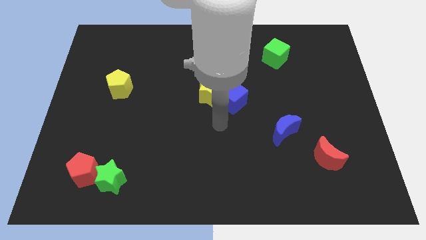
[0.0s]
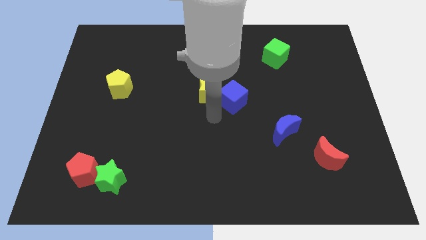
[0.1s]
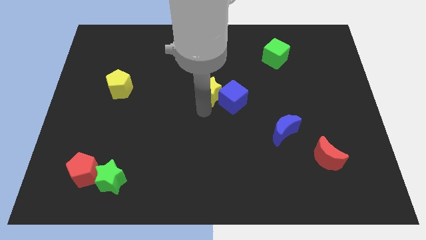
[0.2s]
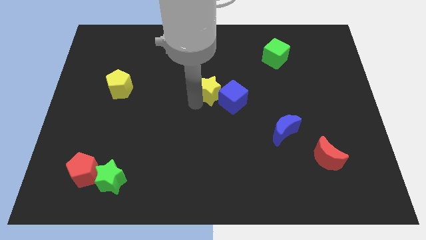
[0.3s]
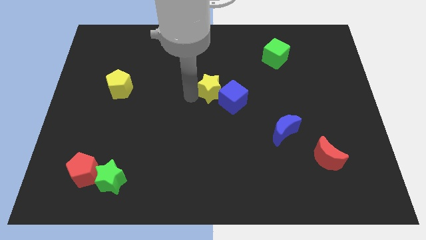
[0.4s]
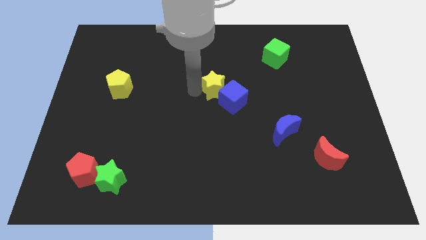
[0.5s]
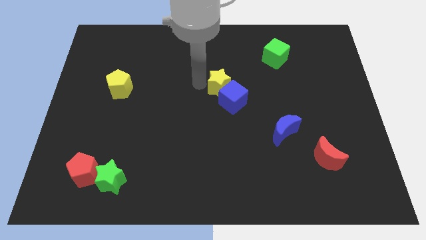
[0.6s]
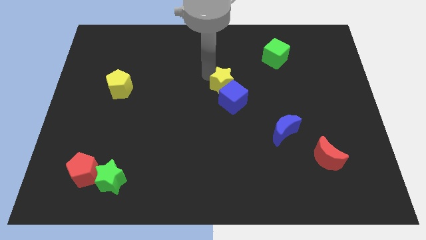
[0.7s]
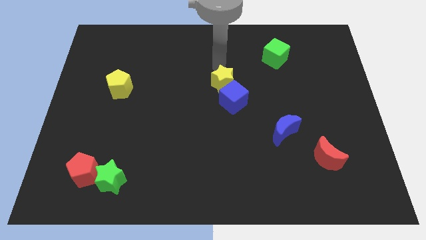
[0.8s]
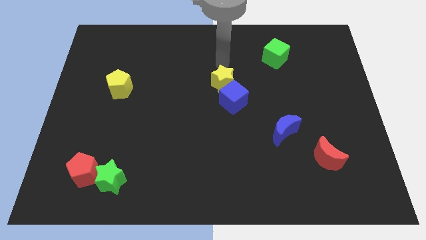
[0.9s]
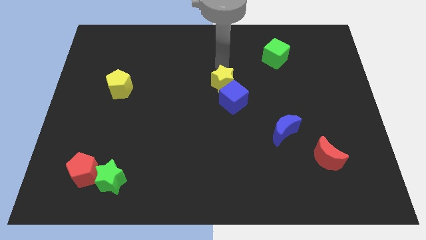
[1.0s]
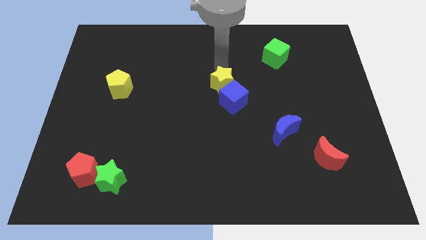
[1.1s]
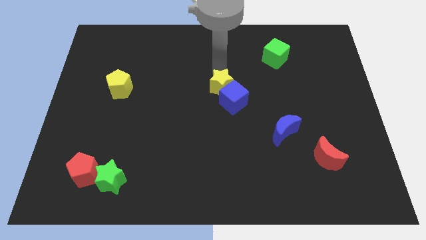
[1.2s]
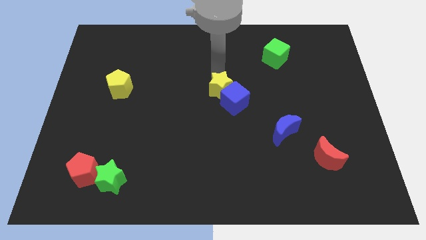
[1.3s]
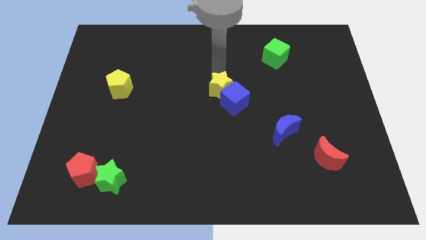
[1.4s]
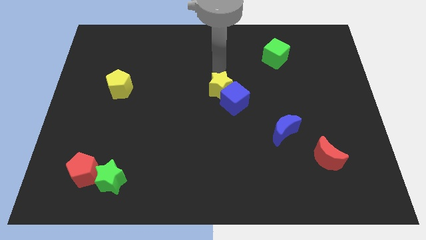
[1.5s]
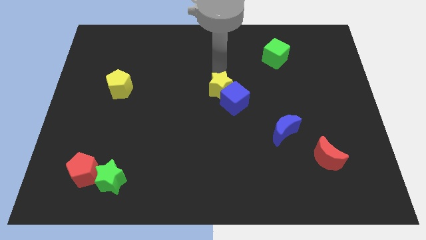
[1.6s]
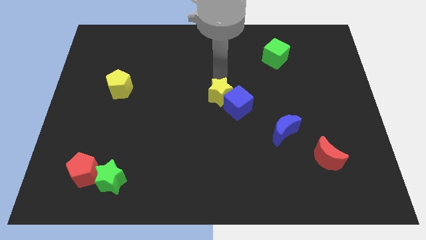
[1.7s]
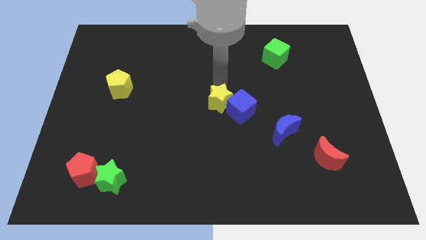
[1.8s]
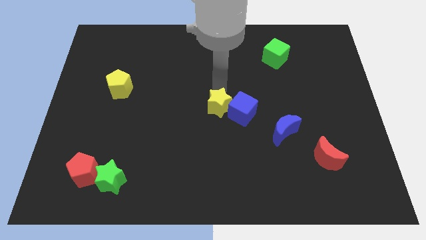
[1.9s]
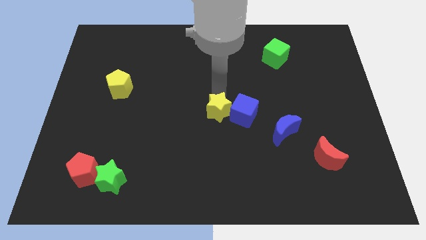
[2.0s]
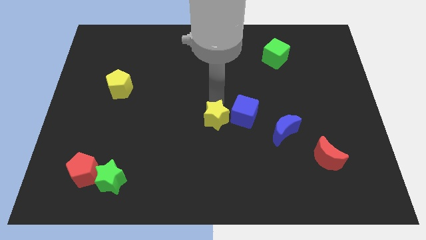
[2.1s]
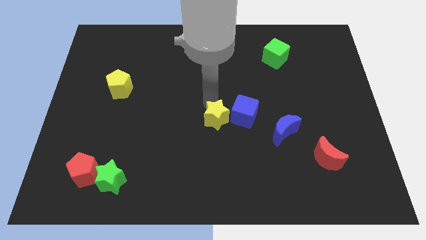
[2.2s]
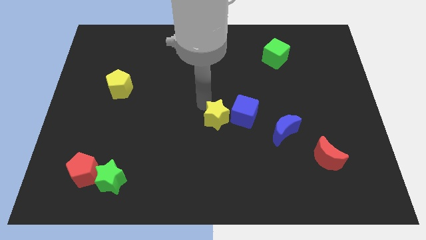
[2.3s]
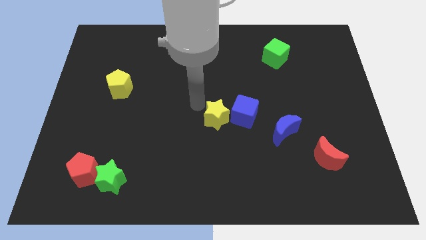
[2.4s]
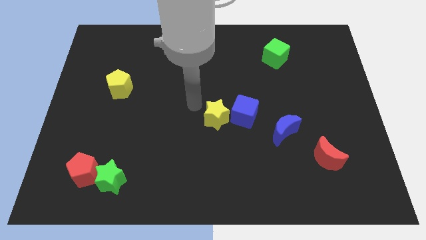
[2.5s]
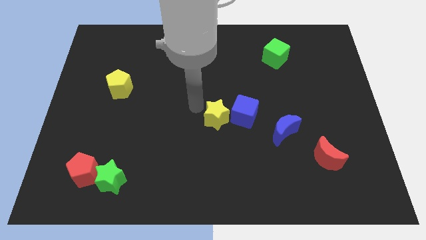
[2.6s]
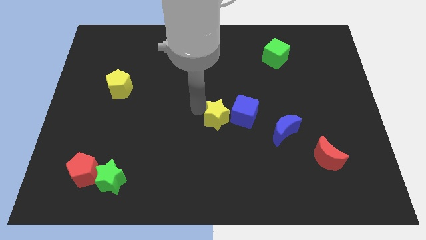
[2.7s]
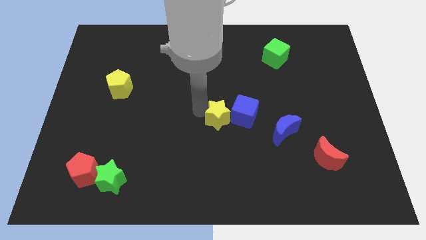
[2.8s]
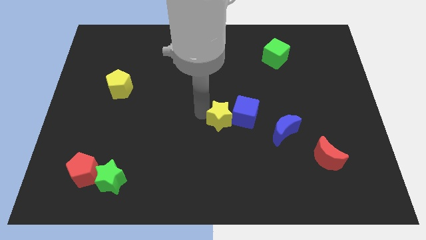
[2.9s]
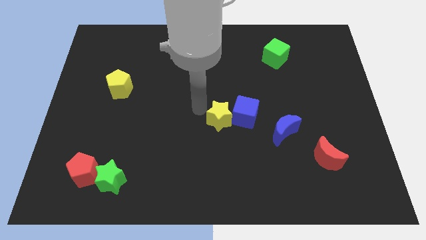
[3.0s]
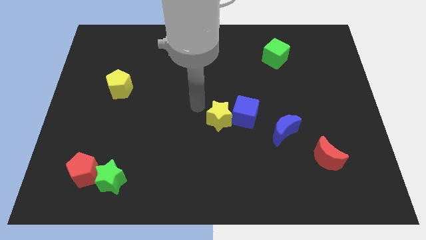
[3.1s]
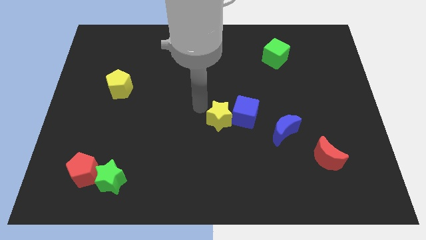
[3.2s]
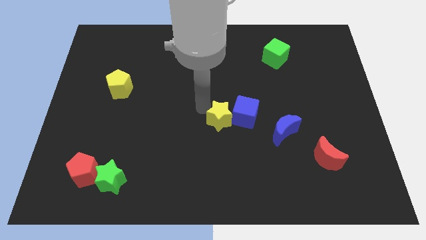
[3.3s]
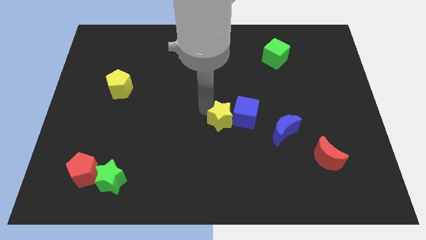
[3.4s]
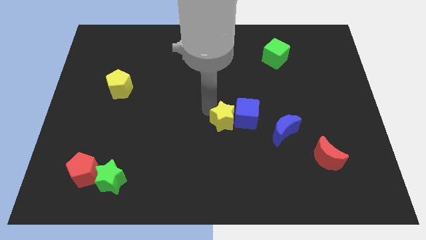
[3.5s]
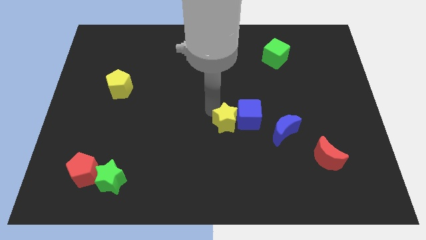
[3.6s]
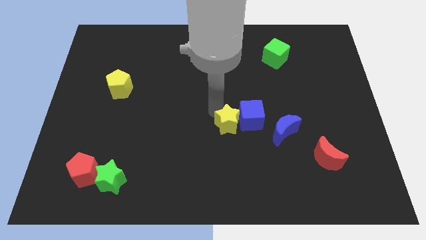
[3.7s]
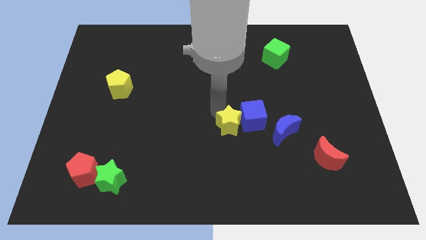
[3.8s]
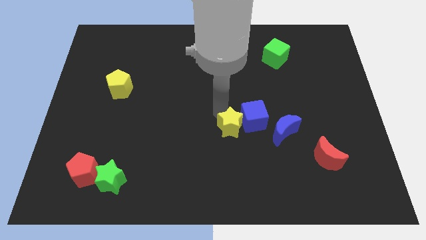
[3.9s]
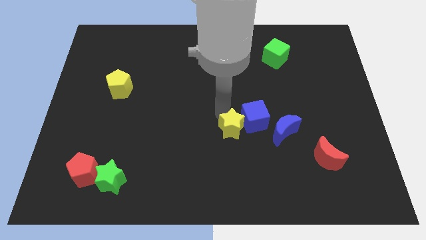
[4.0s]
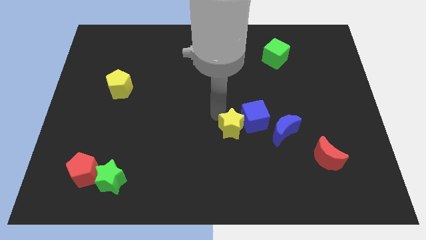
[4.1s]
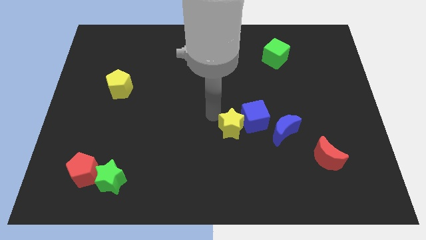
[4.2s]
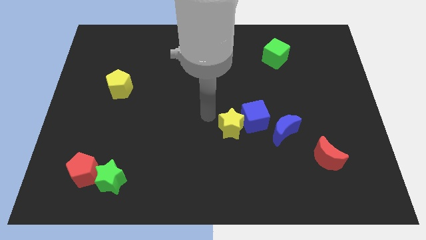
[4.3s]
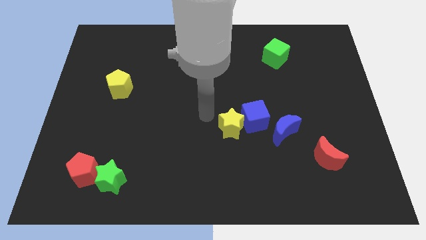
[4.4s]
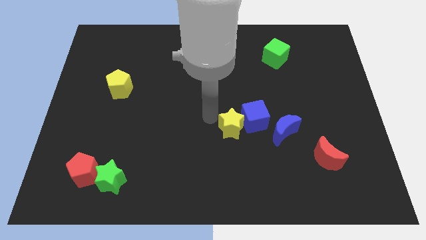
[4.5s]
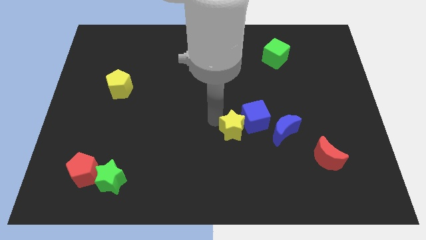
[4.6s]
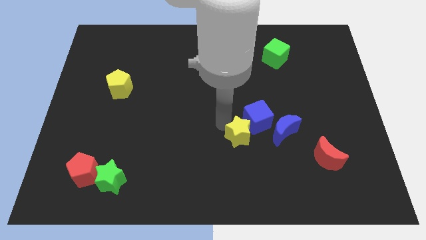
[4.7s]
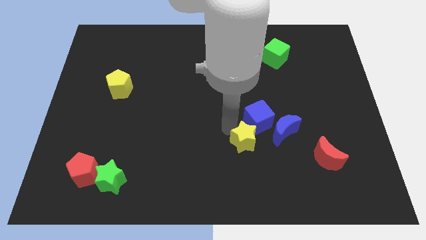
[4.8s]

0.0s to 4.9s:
put the yellow star to the bottom left side of the blue moon

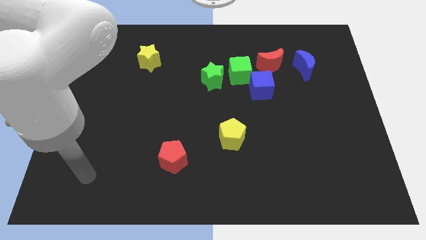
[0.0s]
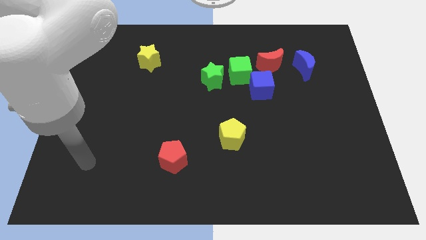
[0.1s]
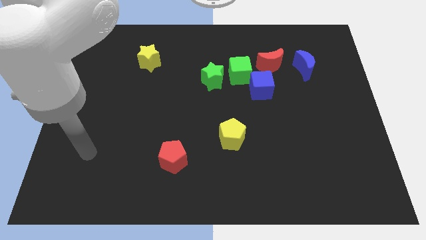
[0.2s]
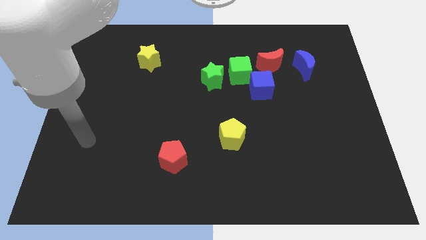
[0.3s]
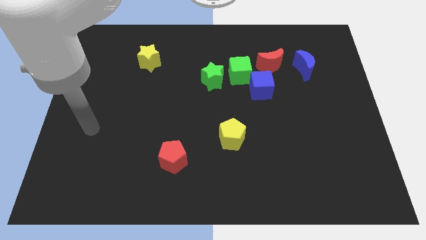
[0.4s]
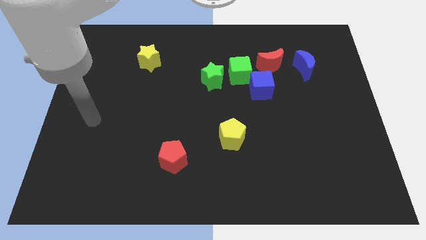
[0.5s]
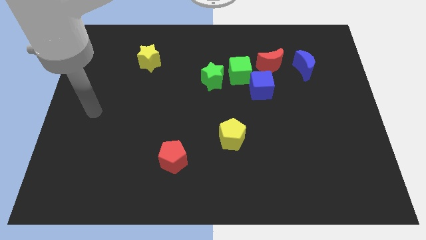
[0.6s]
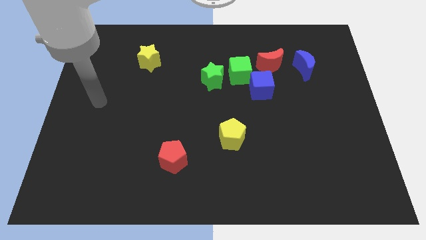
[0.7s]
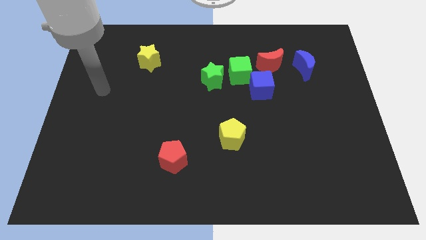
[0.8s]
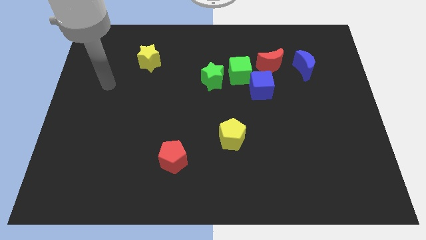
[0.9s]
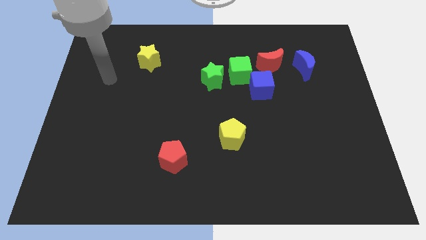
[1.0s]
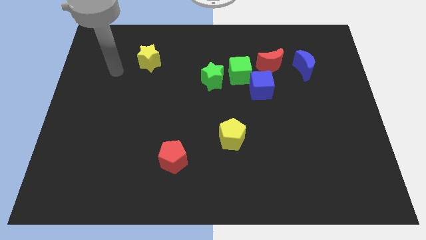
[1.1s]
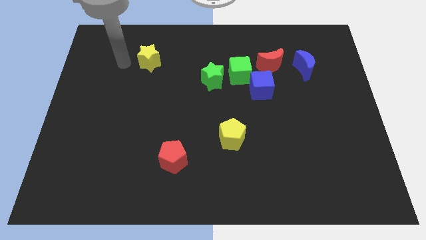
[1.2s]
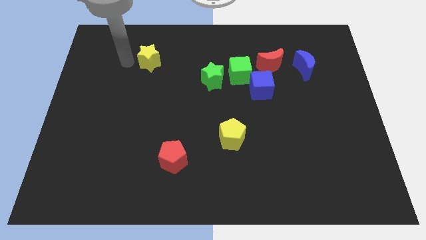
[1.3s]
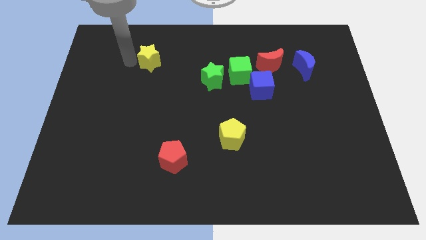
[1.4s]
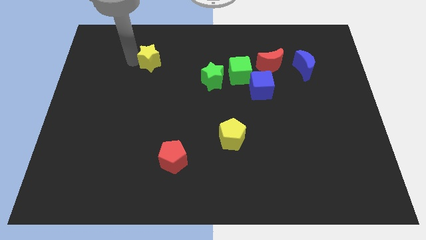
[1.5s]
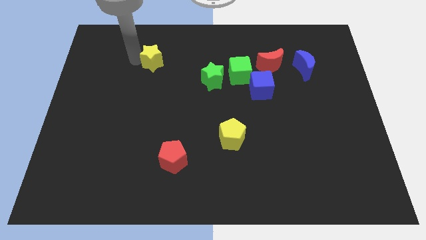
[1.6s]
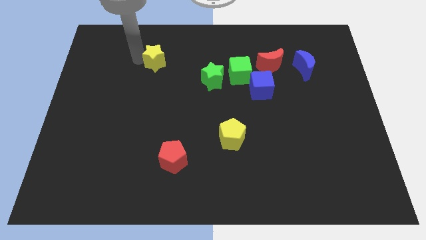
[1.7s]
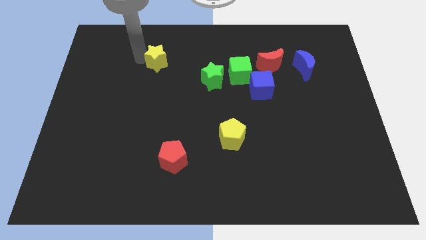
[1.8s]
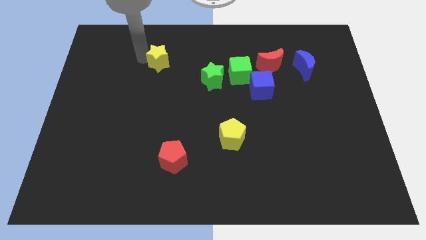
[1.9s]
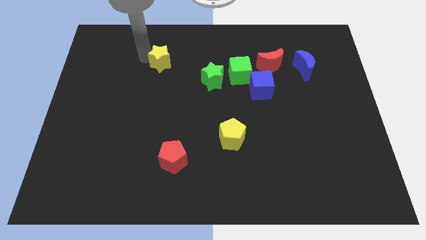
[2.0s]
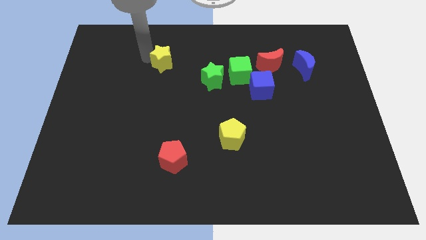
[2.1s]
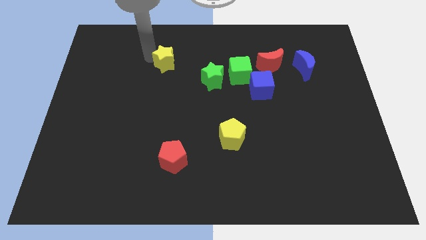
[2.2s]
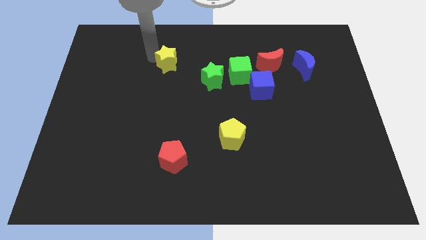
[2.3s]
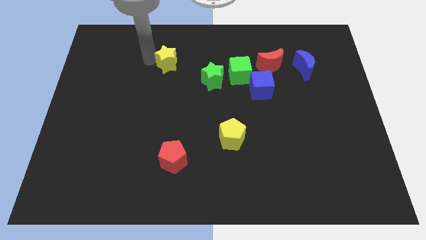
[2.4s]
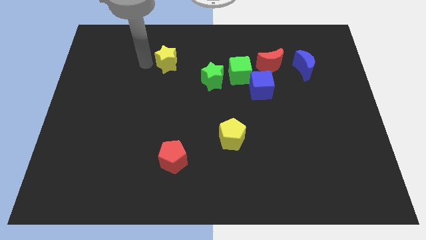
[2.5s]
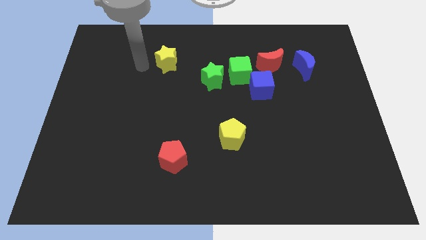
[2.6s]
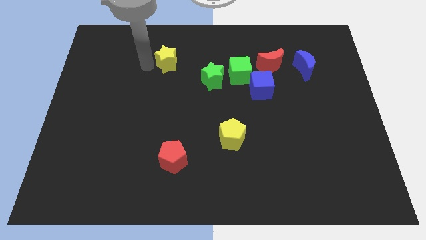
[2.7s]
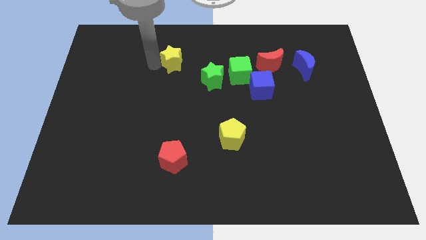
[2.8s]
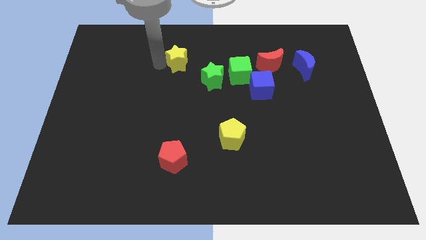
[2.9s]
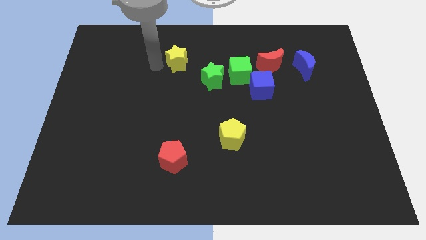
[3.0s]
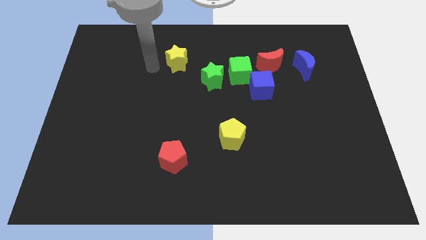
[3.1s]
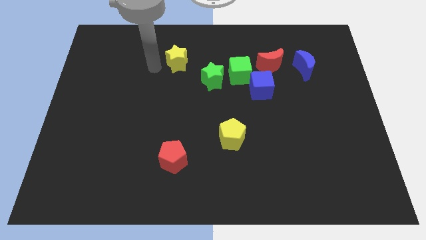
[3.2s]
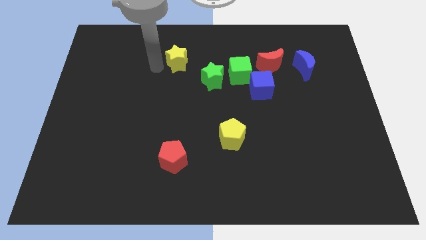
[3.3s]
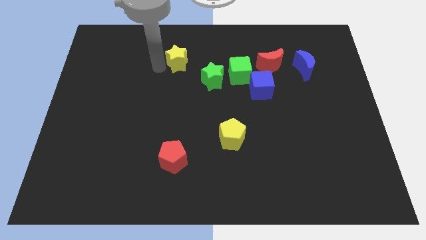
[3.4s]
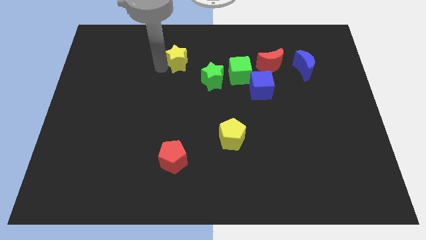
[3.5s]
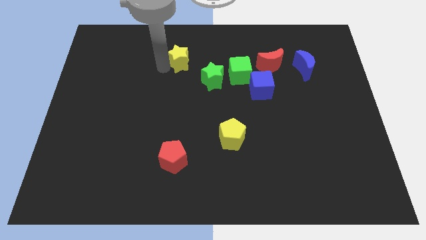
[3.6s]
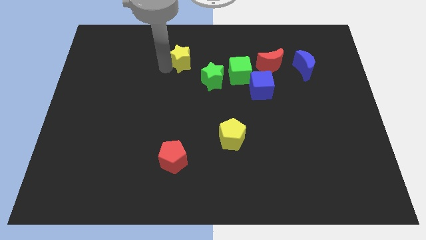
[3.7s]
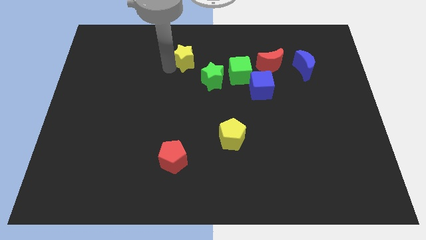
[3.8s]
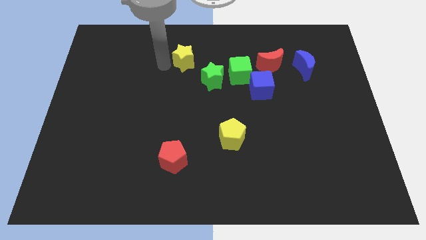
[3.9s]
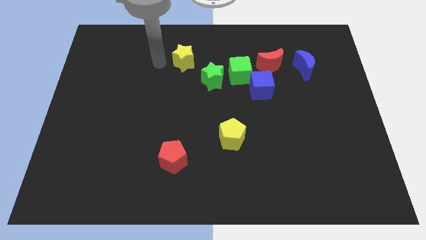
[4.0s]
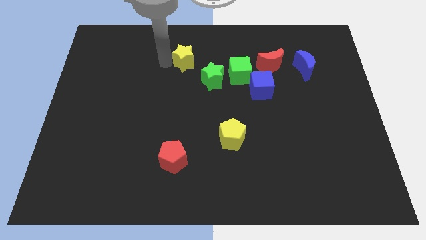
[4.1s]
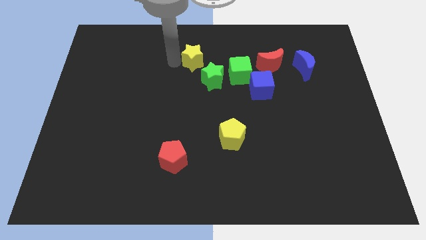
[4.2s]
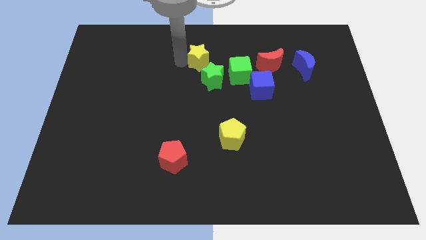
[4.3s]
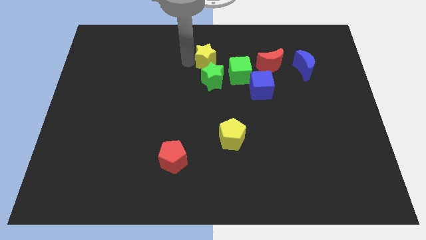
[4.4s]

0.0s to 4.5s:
push the yellow star to the top left of the green cube
